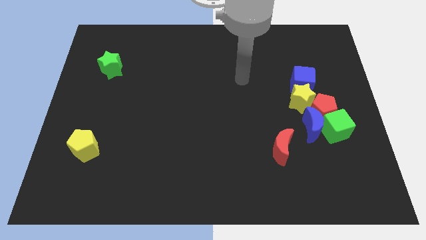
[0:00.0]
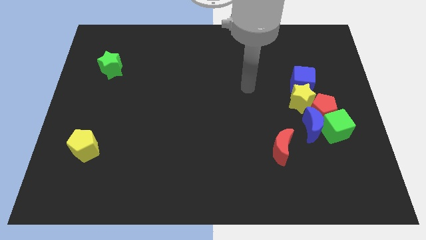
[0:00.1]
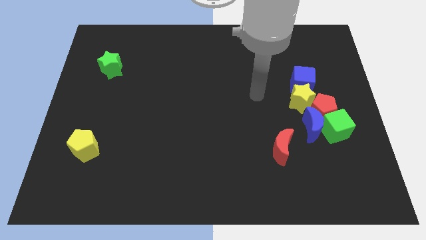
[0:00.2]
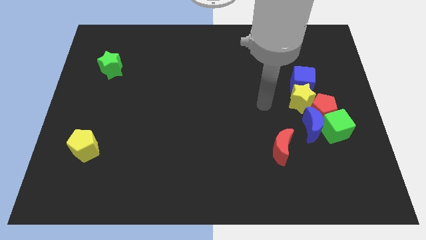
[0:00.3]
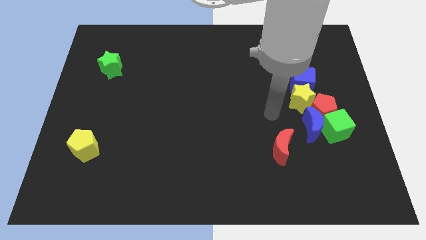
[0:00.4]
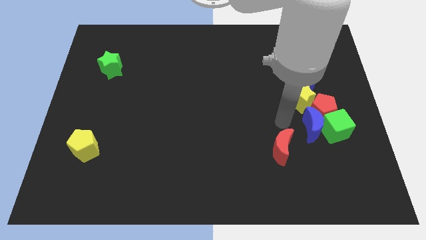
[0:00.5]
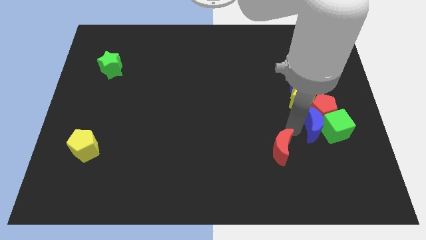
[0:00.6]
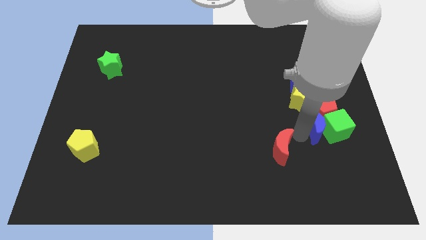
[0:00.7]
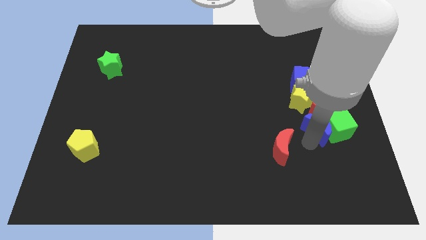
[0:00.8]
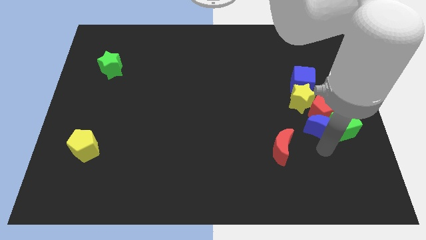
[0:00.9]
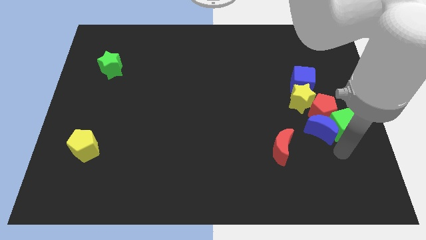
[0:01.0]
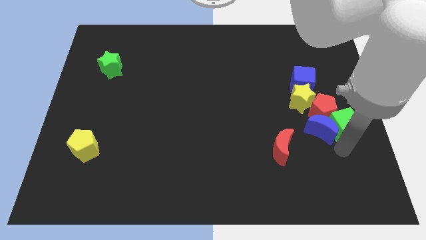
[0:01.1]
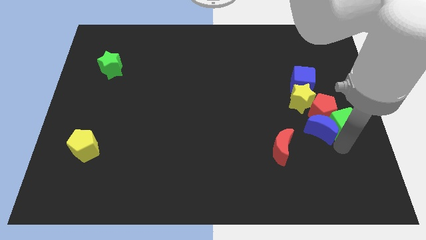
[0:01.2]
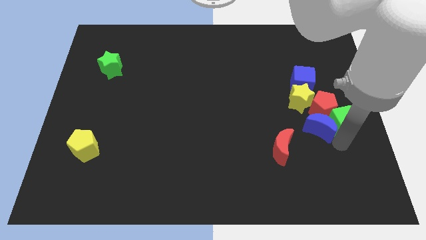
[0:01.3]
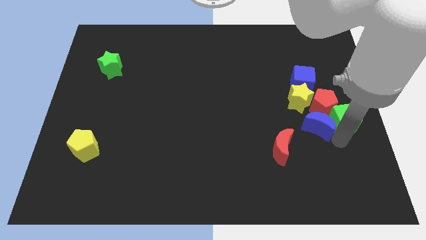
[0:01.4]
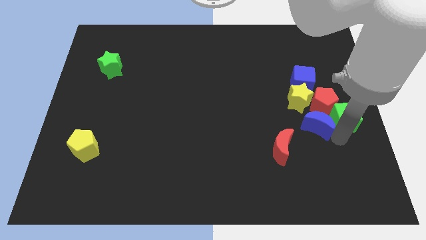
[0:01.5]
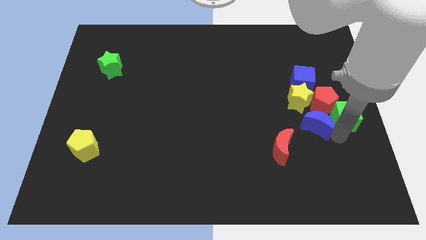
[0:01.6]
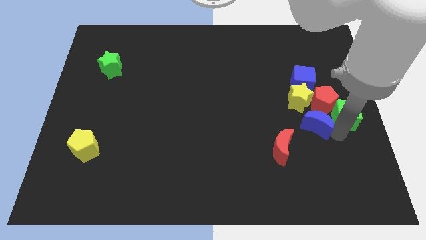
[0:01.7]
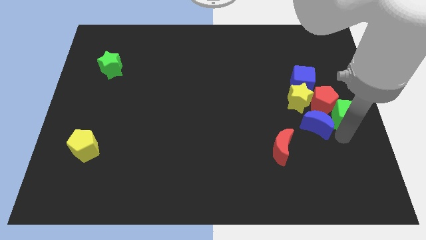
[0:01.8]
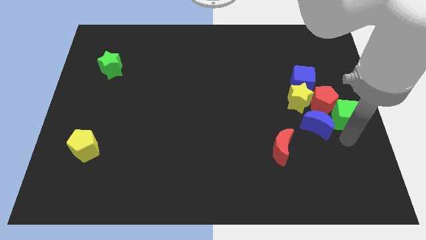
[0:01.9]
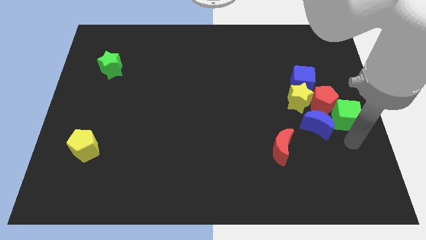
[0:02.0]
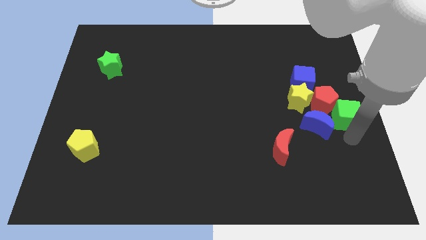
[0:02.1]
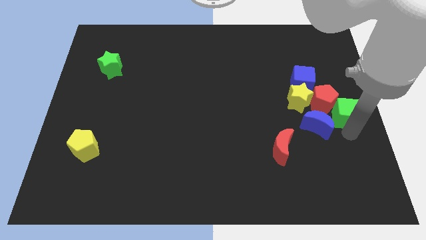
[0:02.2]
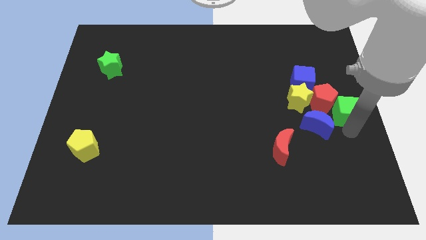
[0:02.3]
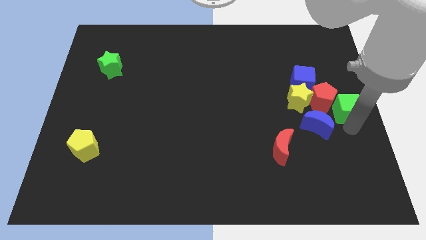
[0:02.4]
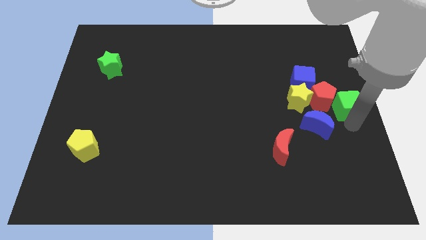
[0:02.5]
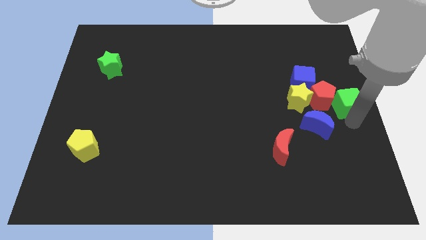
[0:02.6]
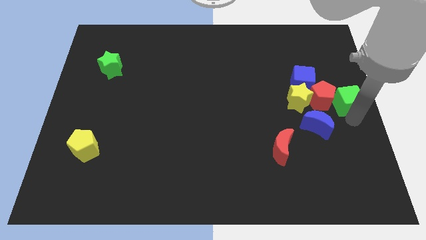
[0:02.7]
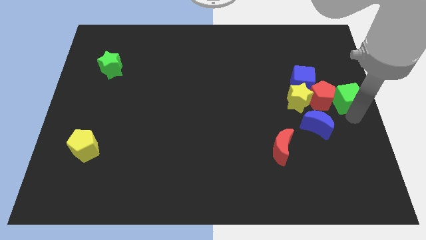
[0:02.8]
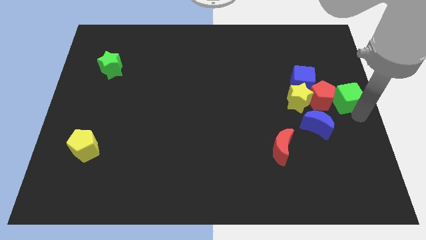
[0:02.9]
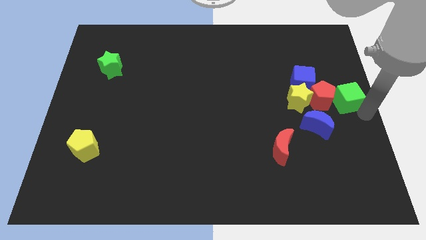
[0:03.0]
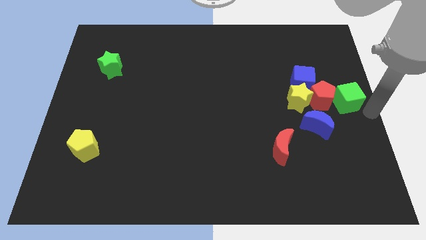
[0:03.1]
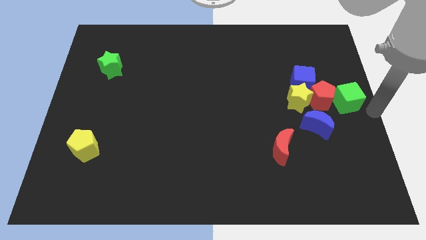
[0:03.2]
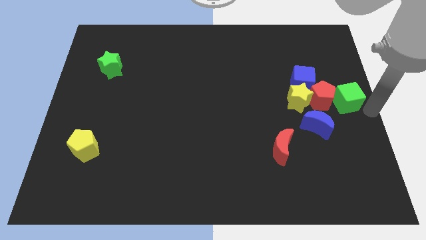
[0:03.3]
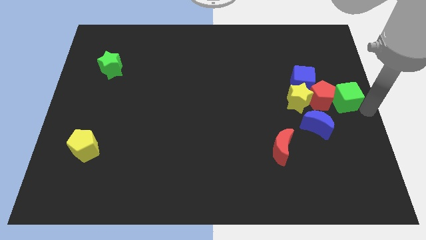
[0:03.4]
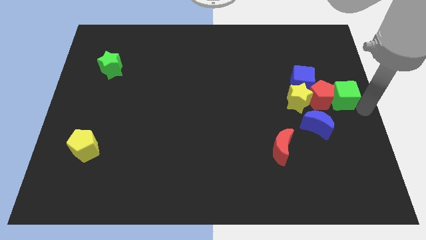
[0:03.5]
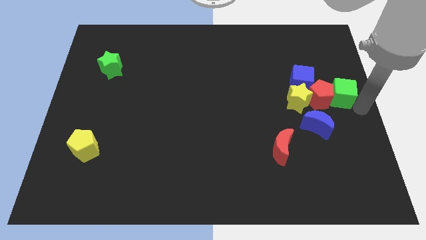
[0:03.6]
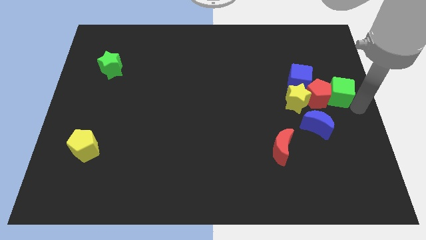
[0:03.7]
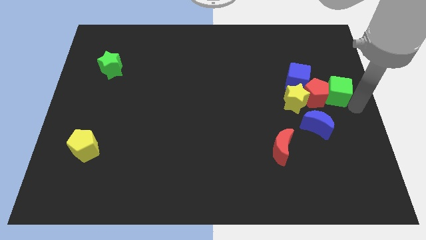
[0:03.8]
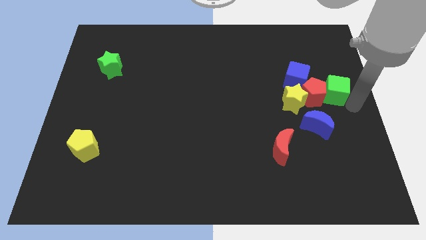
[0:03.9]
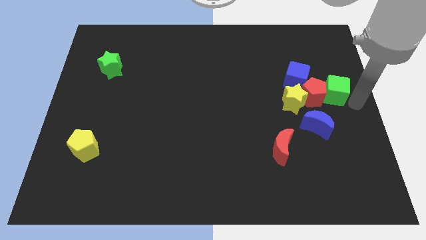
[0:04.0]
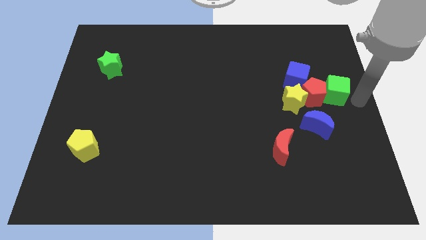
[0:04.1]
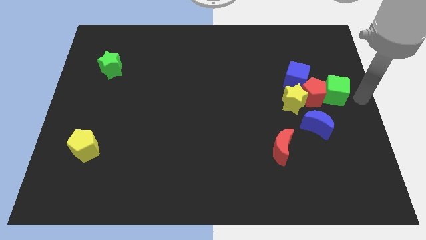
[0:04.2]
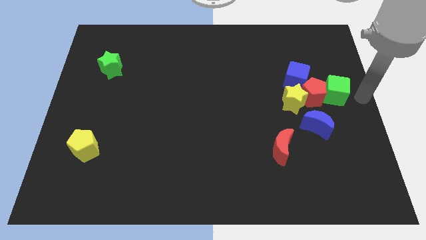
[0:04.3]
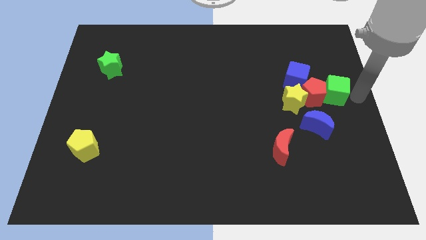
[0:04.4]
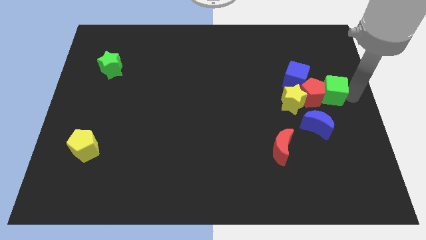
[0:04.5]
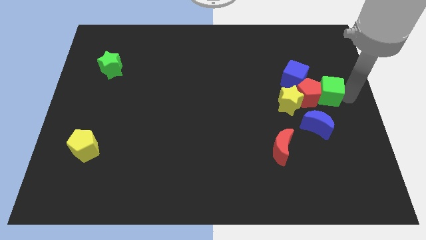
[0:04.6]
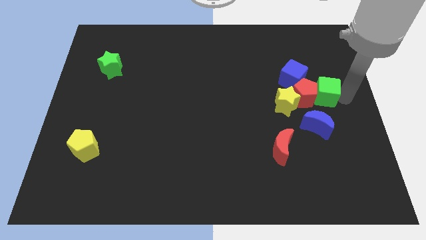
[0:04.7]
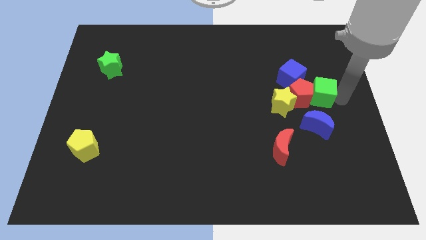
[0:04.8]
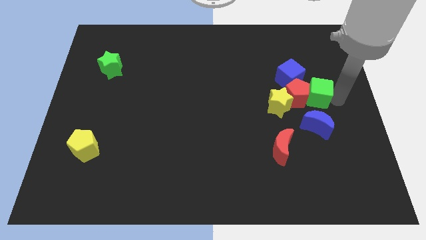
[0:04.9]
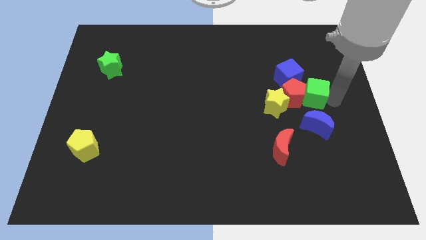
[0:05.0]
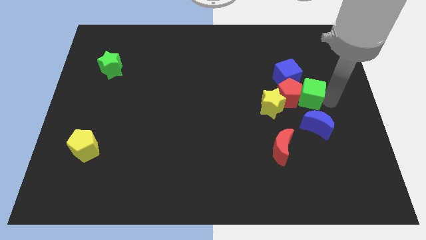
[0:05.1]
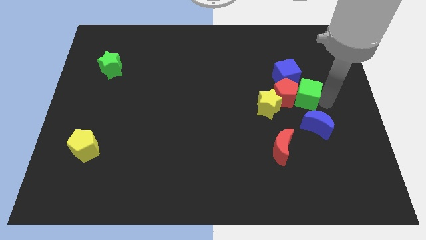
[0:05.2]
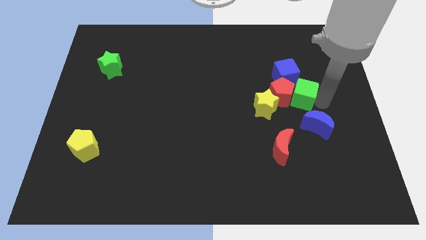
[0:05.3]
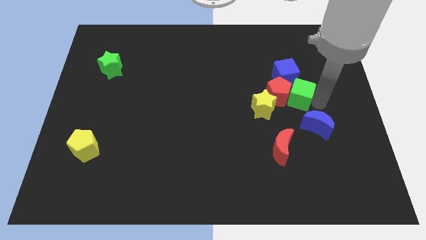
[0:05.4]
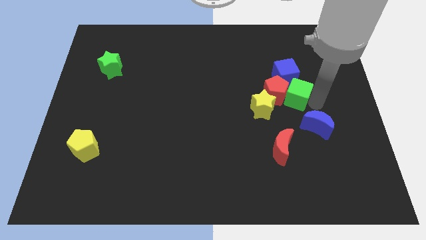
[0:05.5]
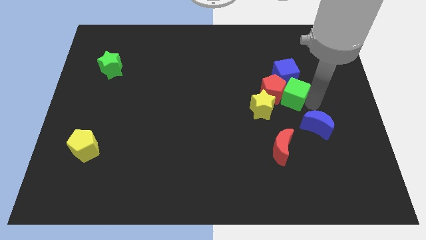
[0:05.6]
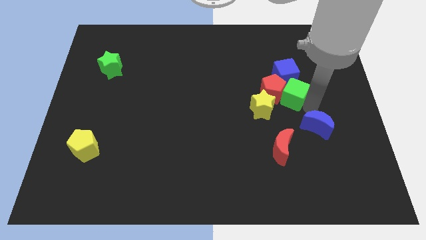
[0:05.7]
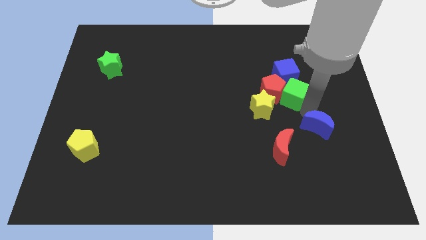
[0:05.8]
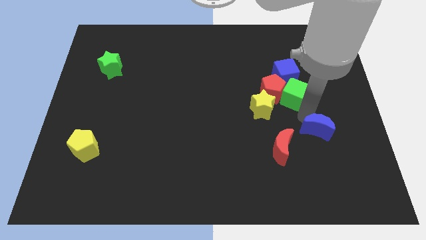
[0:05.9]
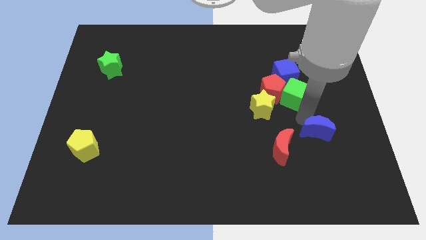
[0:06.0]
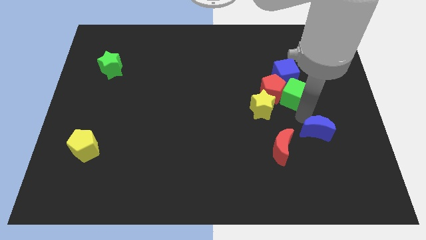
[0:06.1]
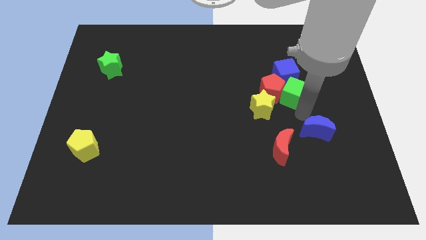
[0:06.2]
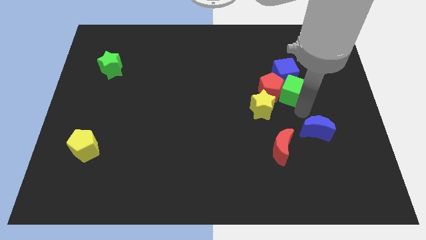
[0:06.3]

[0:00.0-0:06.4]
slide the green cube next to the blue cube

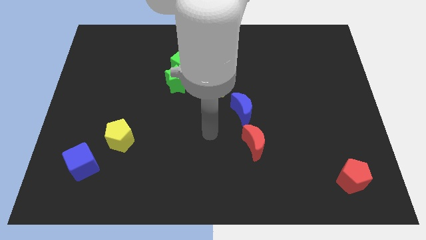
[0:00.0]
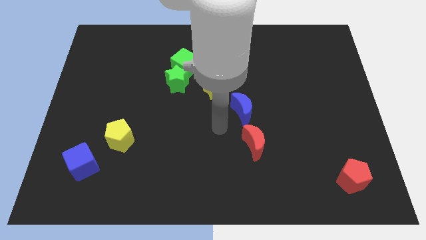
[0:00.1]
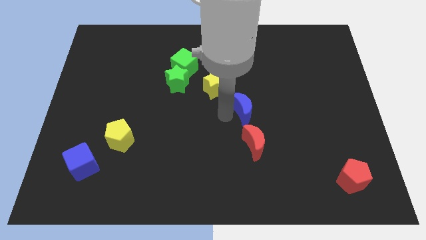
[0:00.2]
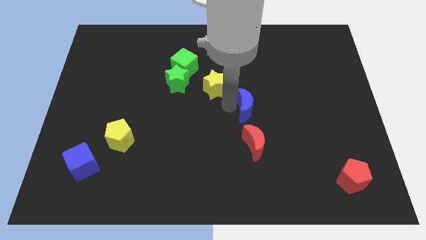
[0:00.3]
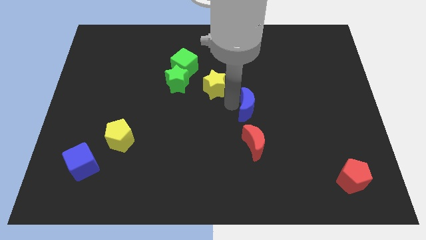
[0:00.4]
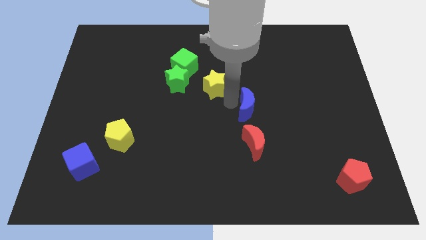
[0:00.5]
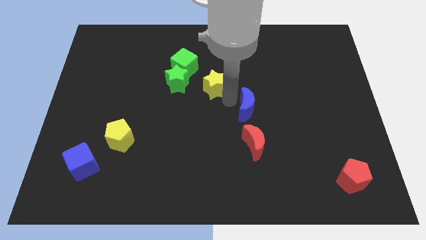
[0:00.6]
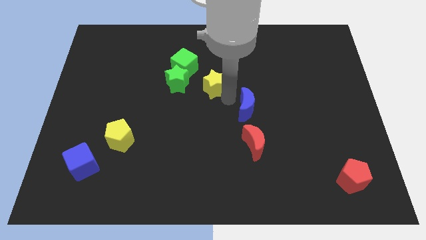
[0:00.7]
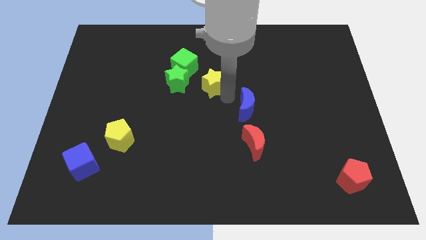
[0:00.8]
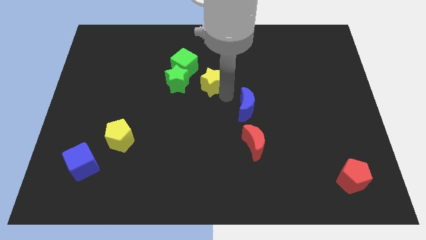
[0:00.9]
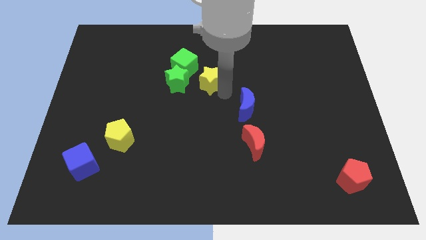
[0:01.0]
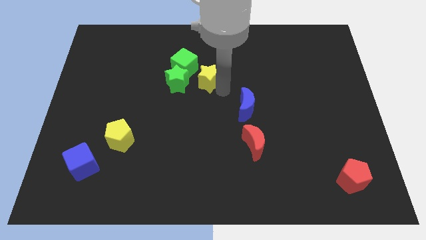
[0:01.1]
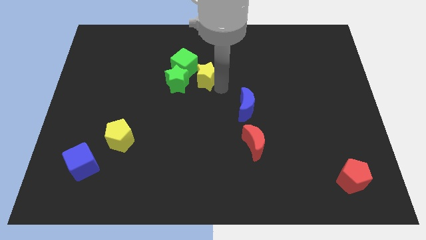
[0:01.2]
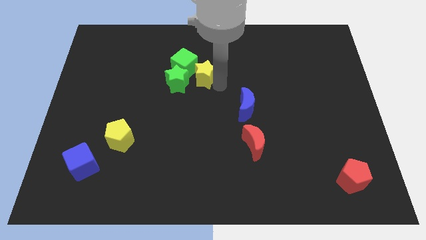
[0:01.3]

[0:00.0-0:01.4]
move the yellow star next to the green cube

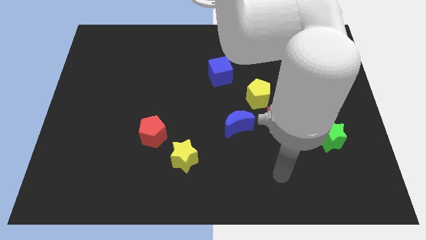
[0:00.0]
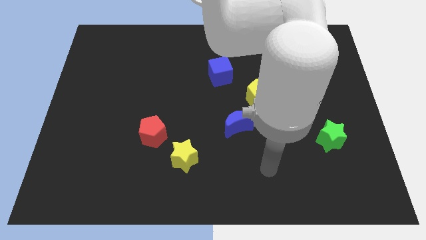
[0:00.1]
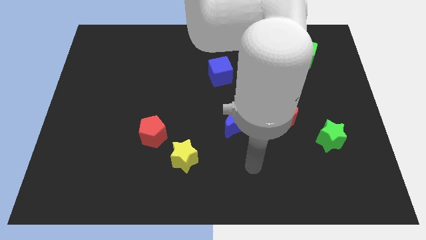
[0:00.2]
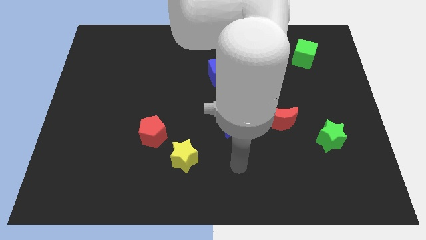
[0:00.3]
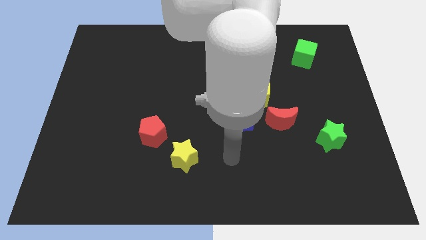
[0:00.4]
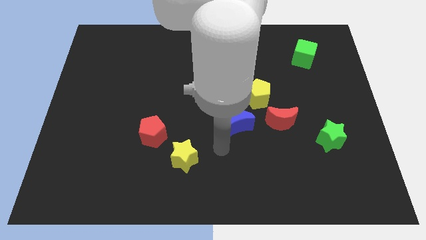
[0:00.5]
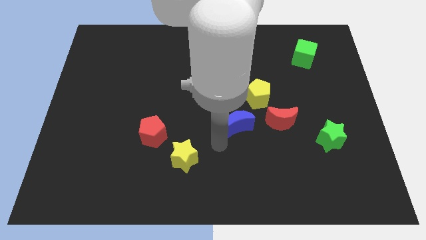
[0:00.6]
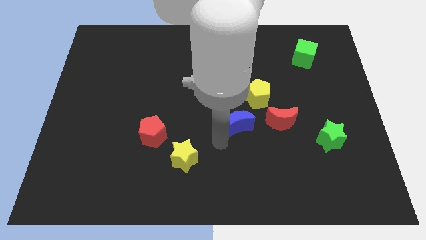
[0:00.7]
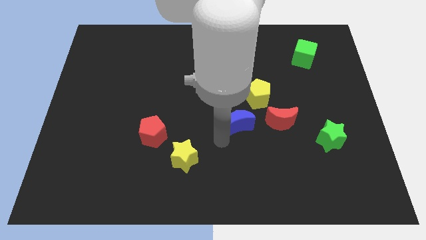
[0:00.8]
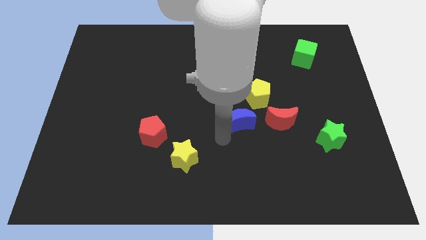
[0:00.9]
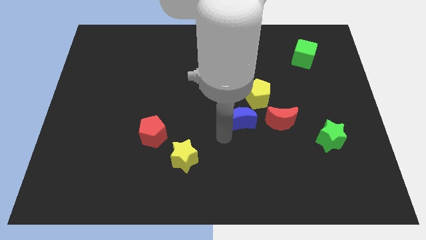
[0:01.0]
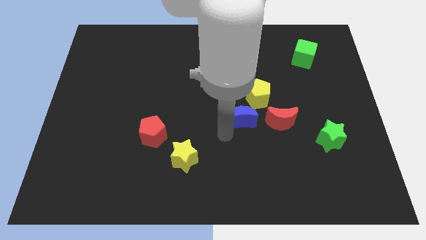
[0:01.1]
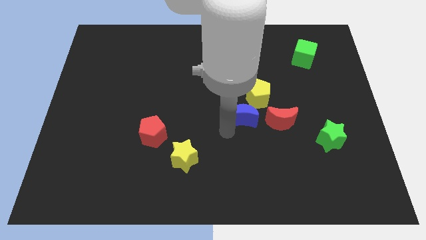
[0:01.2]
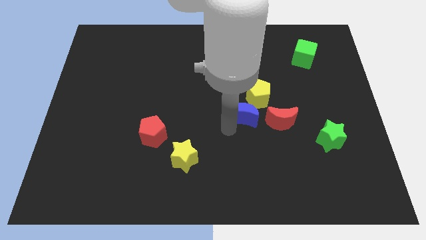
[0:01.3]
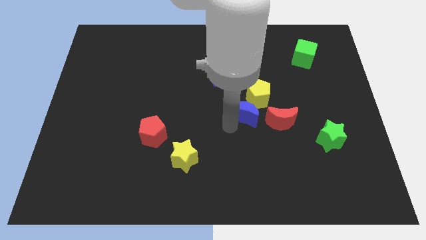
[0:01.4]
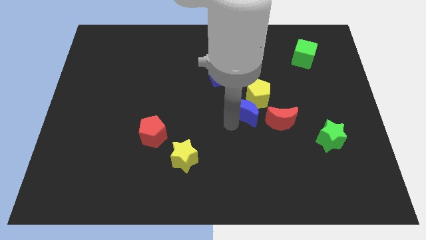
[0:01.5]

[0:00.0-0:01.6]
put the blue moon next to the yellow pentagon
